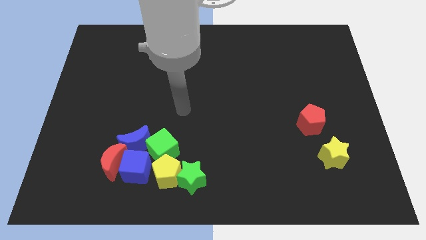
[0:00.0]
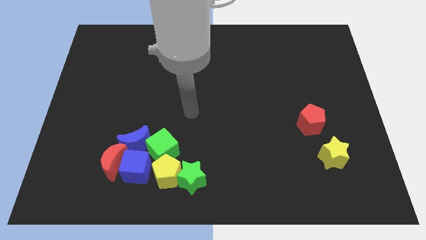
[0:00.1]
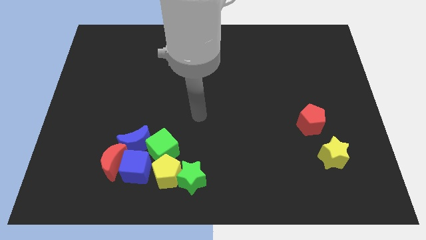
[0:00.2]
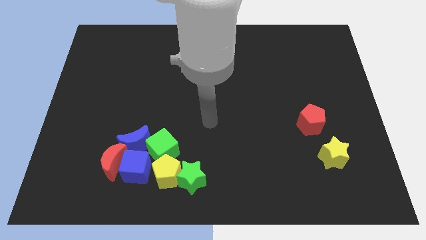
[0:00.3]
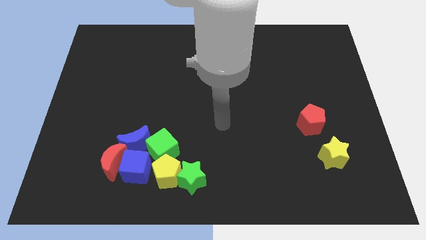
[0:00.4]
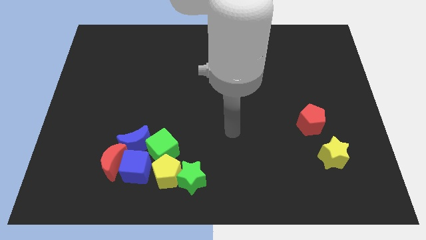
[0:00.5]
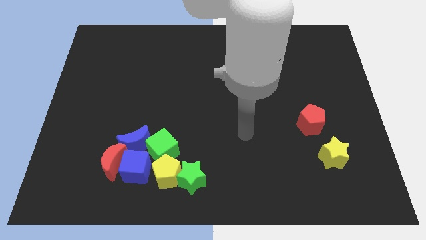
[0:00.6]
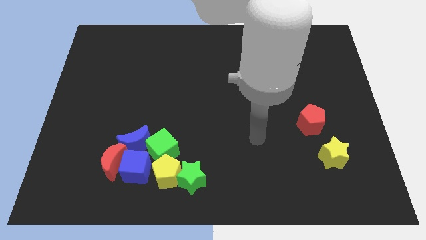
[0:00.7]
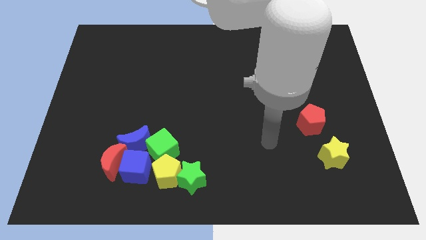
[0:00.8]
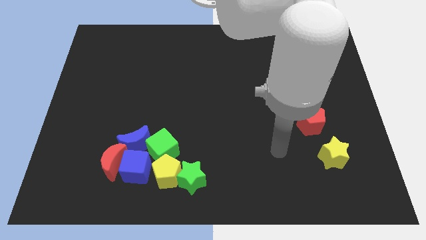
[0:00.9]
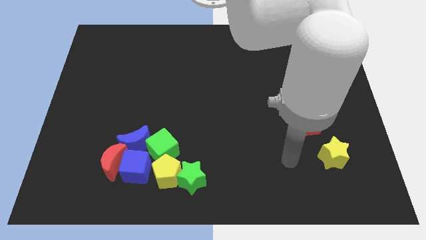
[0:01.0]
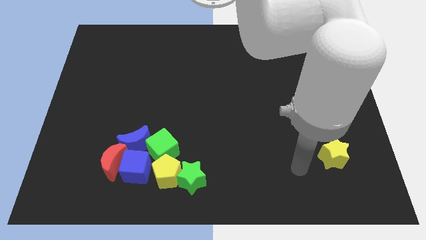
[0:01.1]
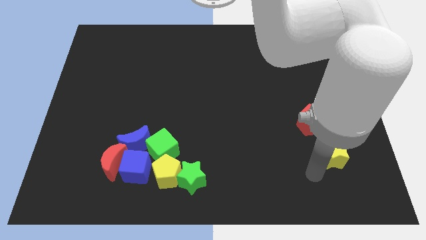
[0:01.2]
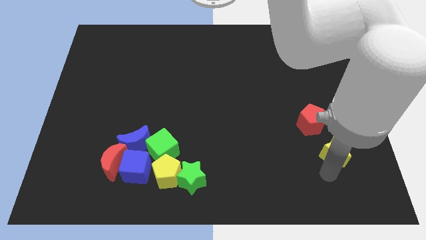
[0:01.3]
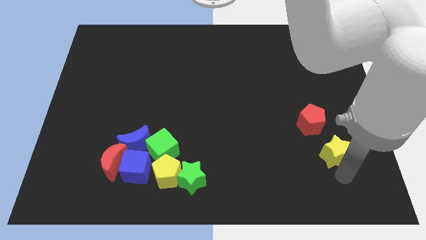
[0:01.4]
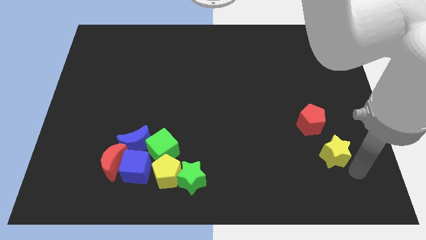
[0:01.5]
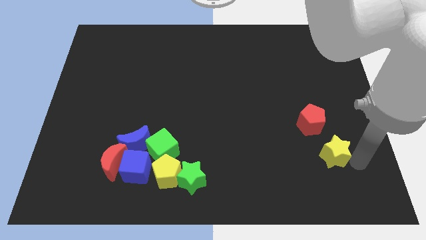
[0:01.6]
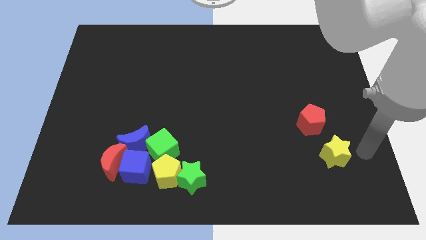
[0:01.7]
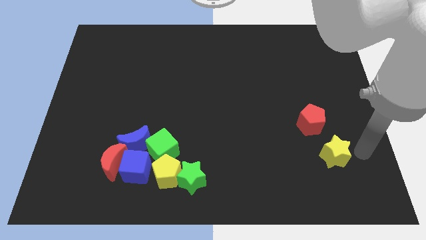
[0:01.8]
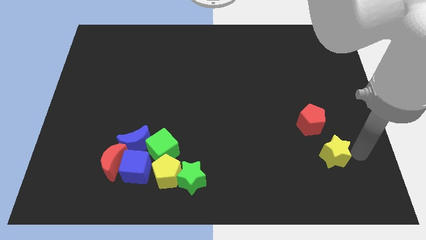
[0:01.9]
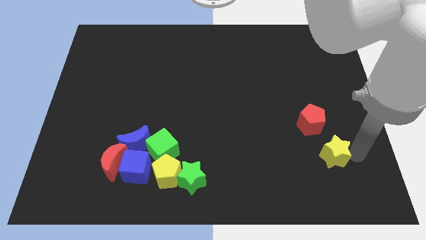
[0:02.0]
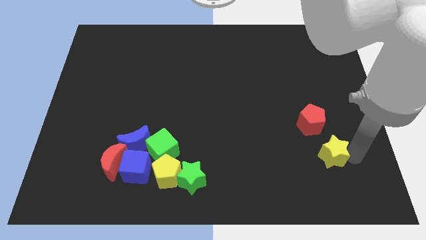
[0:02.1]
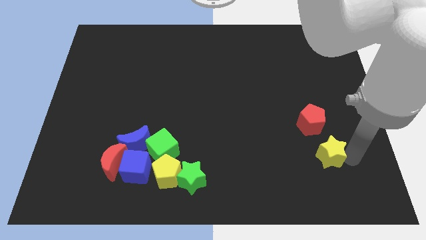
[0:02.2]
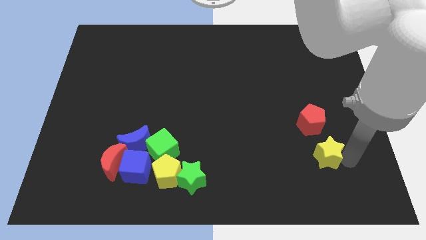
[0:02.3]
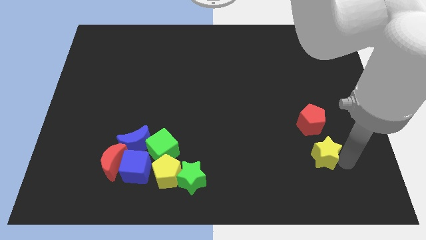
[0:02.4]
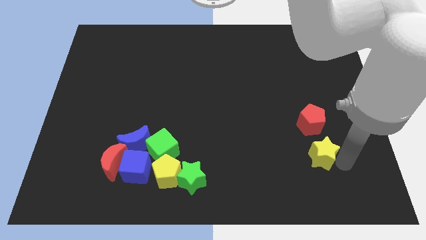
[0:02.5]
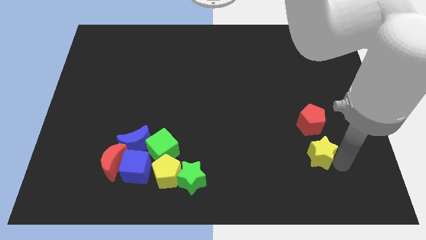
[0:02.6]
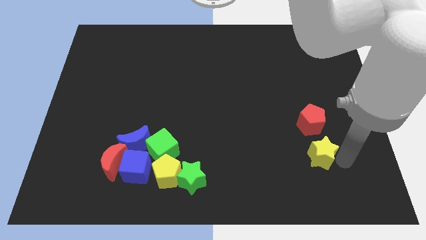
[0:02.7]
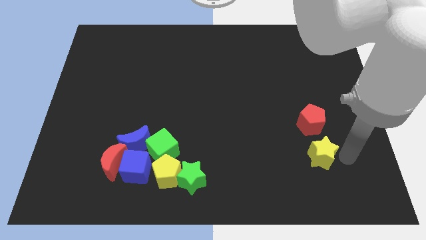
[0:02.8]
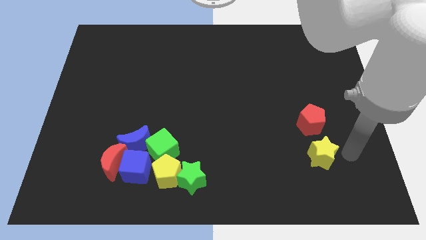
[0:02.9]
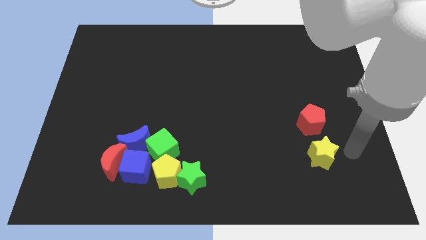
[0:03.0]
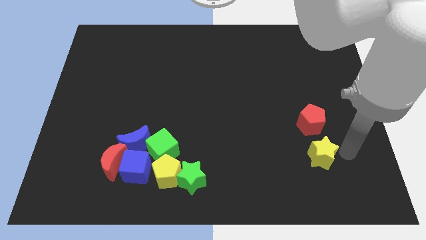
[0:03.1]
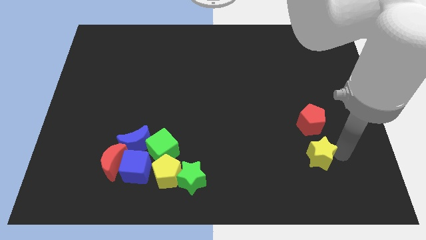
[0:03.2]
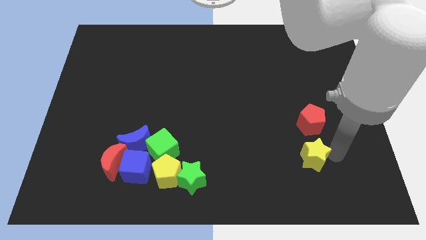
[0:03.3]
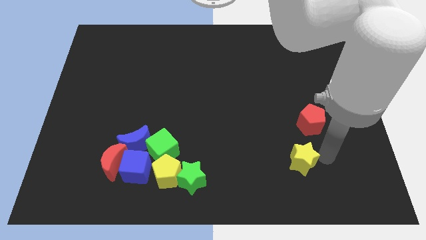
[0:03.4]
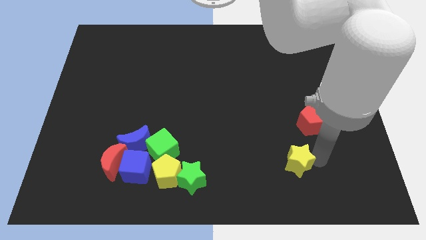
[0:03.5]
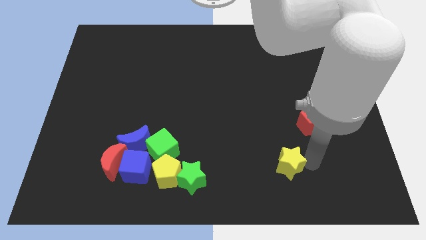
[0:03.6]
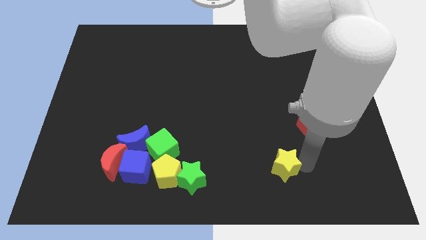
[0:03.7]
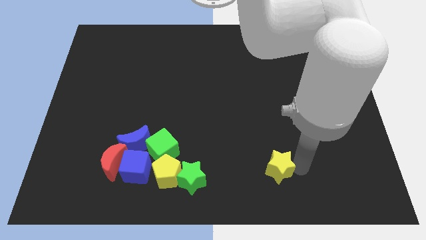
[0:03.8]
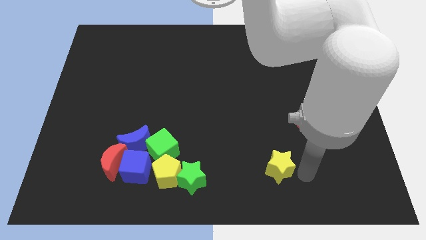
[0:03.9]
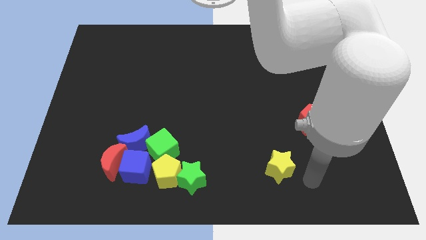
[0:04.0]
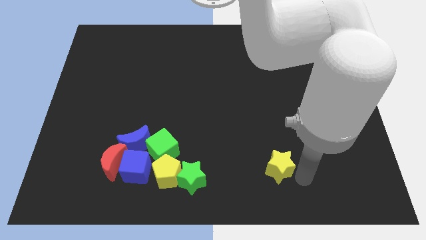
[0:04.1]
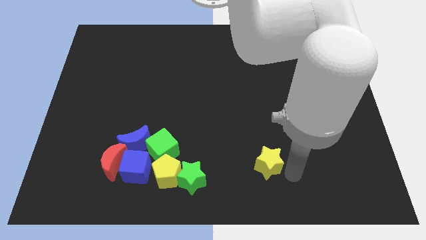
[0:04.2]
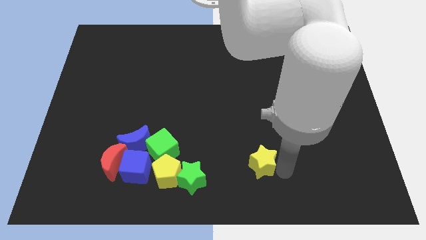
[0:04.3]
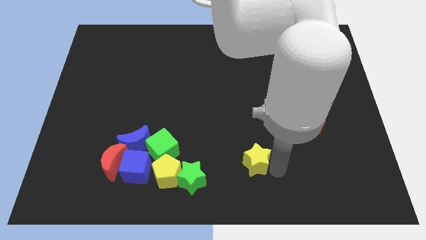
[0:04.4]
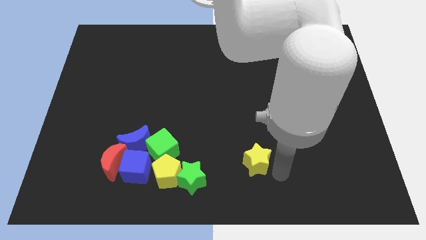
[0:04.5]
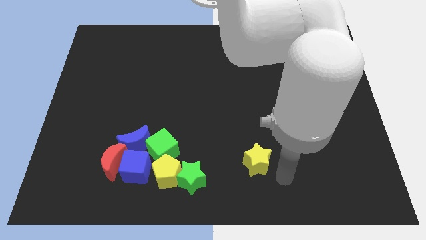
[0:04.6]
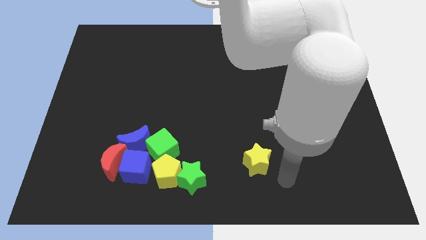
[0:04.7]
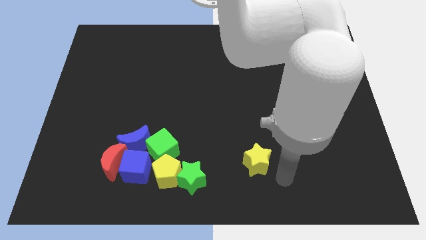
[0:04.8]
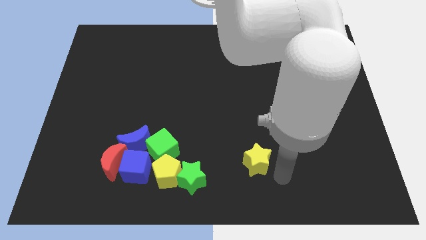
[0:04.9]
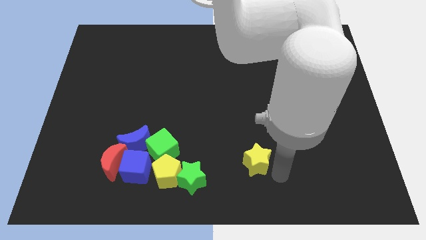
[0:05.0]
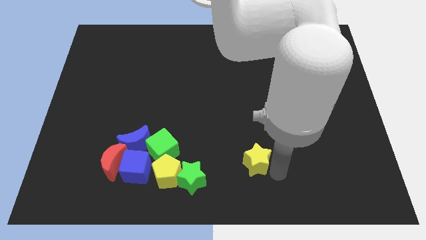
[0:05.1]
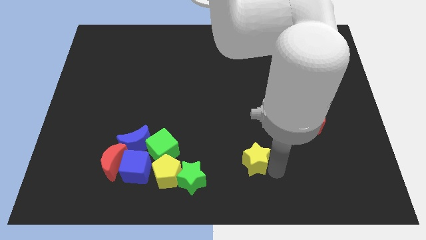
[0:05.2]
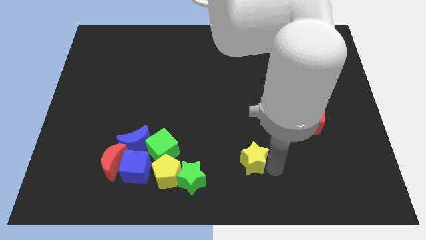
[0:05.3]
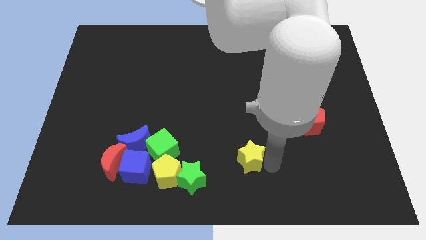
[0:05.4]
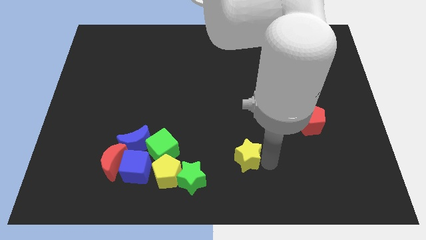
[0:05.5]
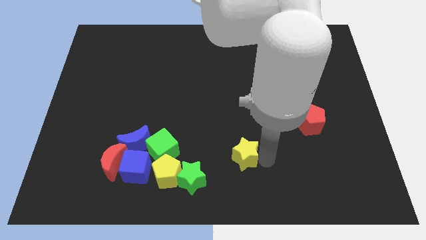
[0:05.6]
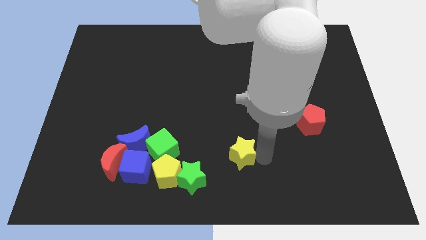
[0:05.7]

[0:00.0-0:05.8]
move the yellow star to the top right of the green star
